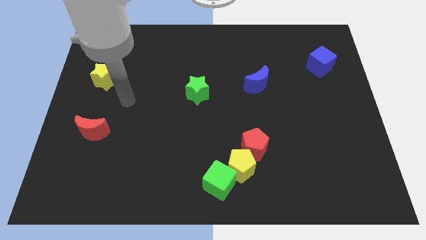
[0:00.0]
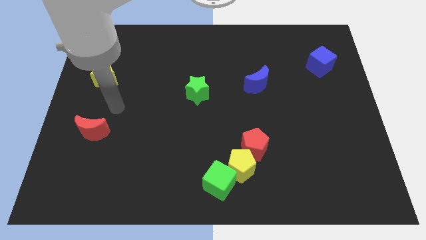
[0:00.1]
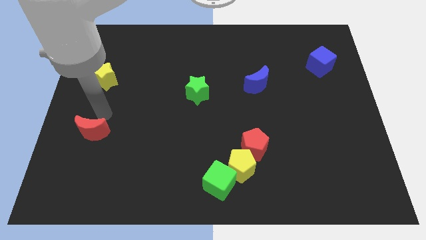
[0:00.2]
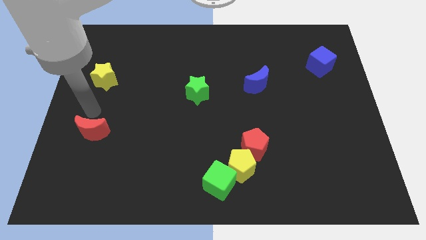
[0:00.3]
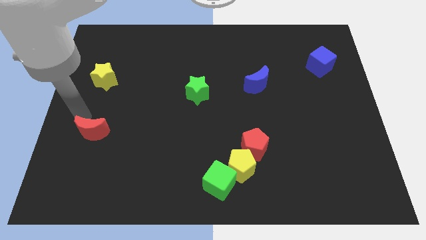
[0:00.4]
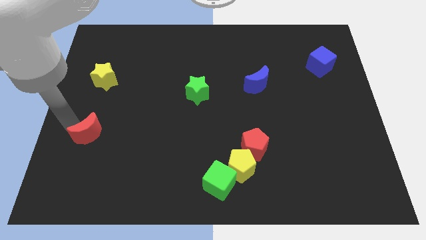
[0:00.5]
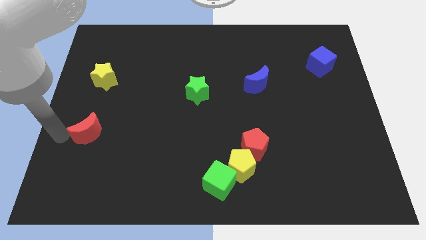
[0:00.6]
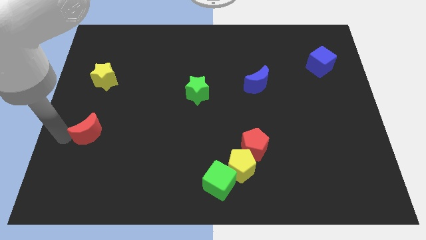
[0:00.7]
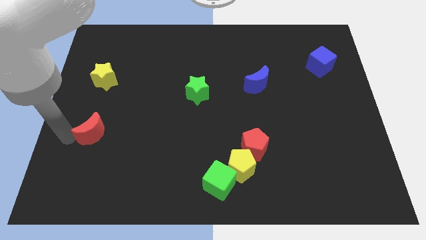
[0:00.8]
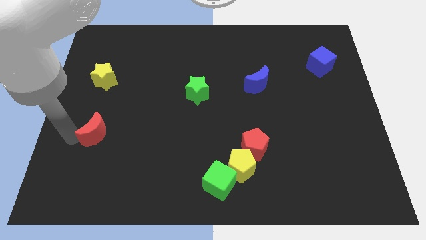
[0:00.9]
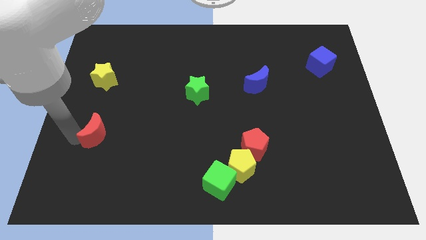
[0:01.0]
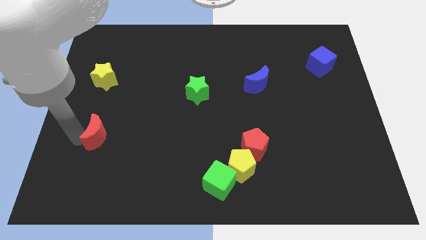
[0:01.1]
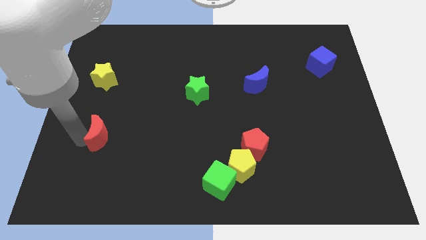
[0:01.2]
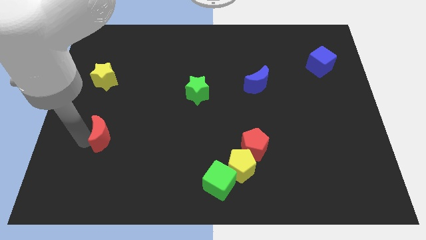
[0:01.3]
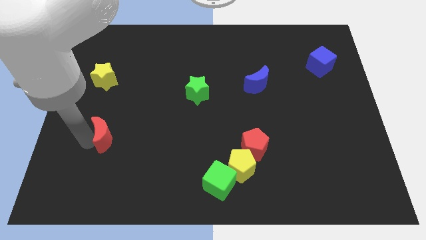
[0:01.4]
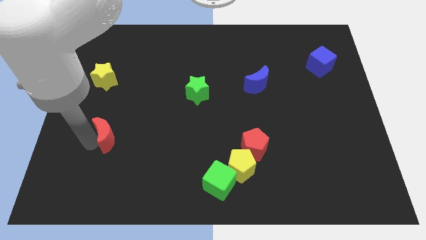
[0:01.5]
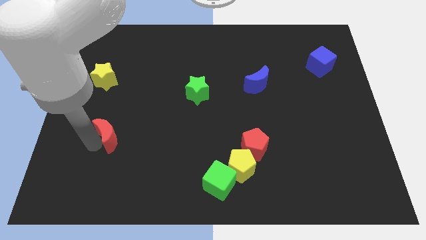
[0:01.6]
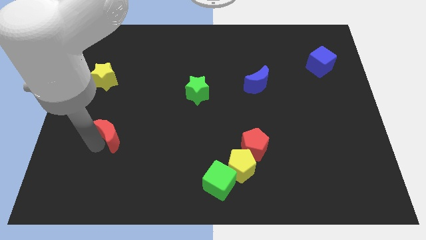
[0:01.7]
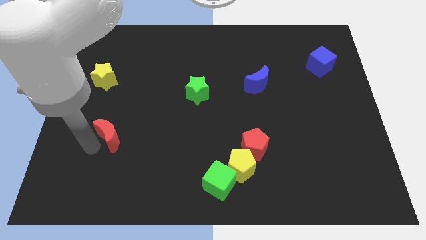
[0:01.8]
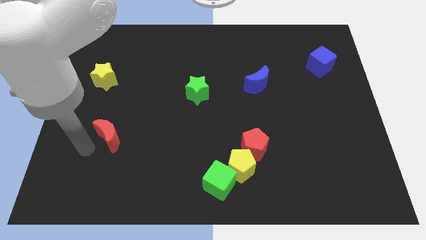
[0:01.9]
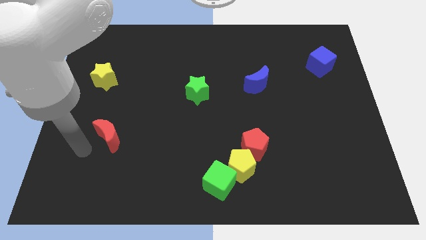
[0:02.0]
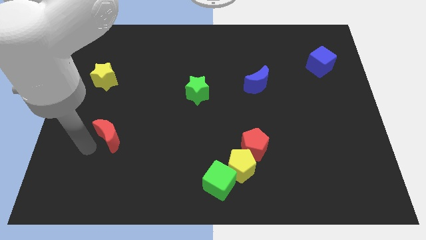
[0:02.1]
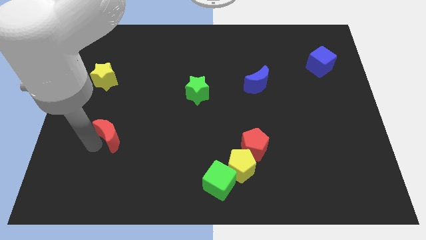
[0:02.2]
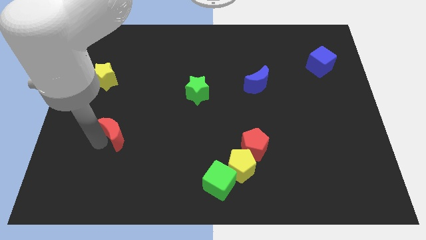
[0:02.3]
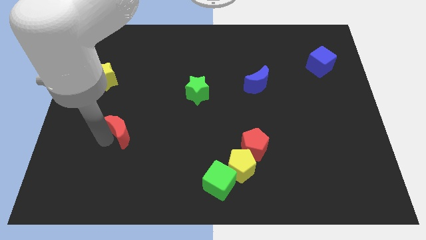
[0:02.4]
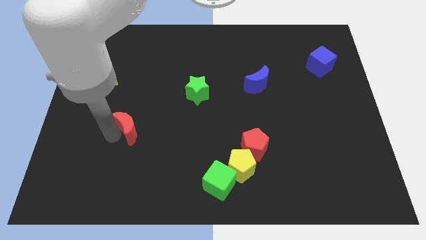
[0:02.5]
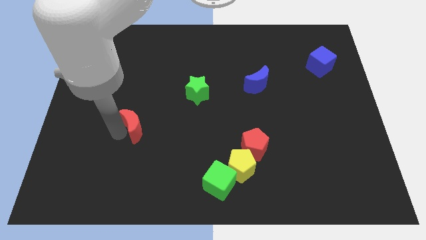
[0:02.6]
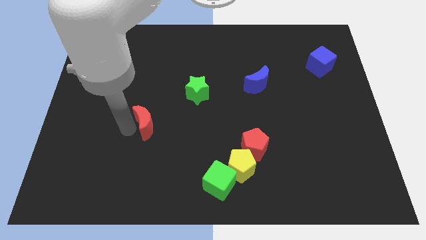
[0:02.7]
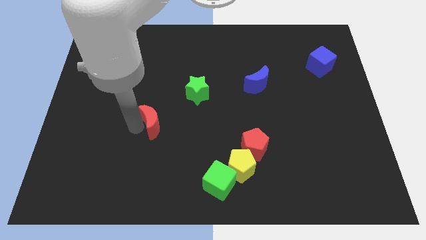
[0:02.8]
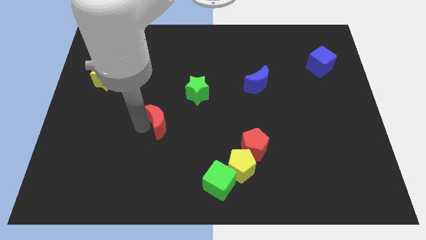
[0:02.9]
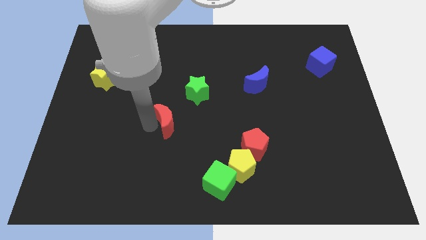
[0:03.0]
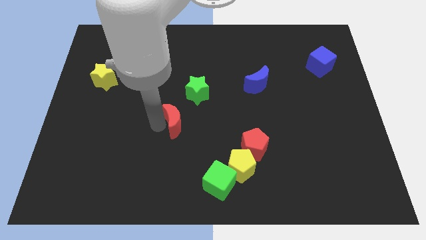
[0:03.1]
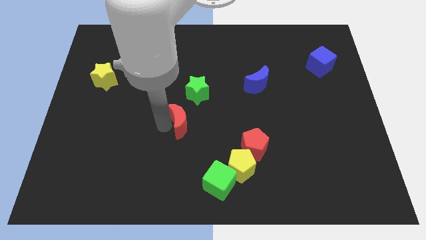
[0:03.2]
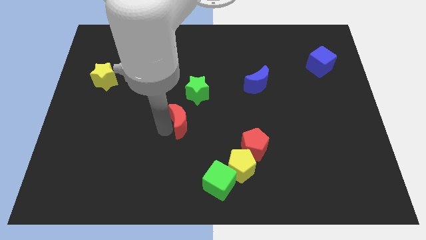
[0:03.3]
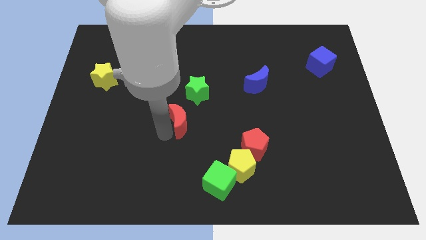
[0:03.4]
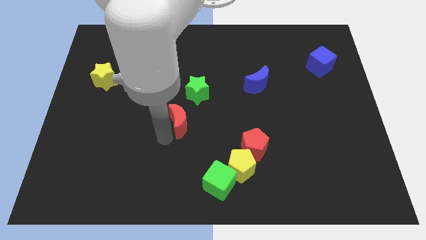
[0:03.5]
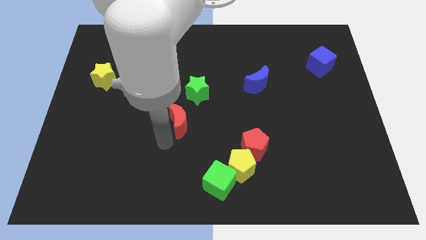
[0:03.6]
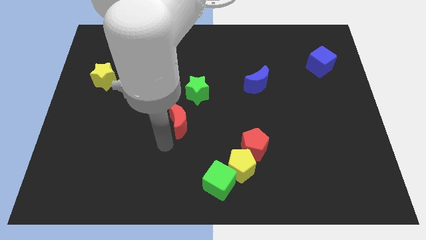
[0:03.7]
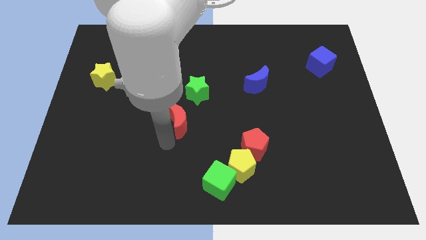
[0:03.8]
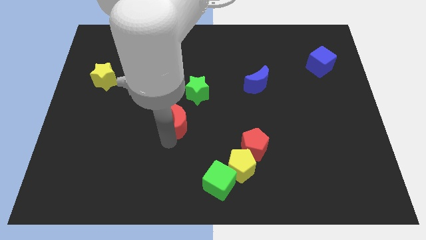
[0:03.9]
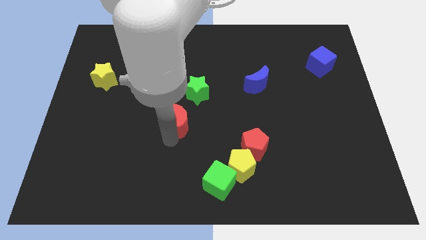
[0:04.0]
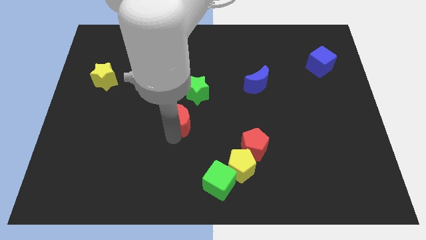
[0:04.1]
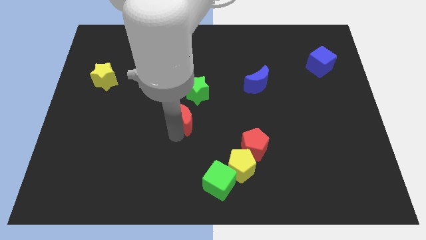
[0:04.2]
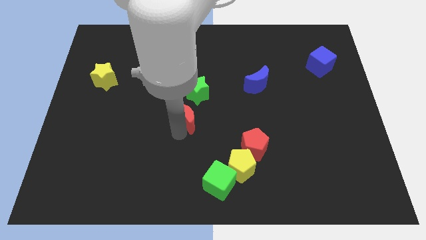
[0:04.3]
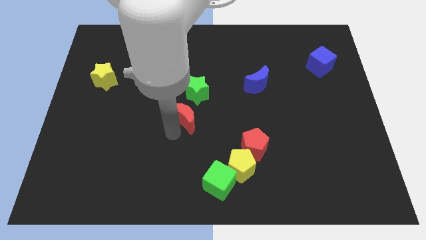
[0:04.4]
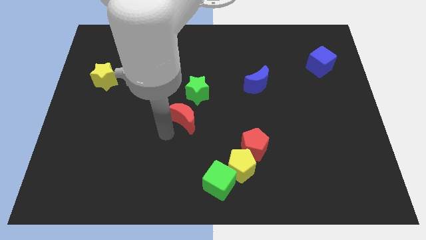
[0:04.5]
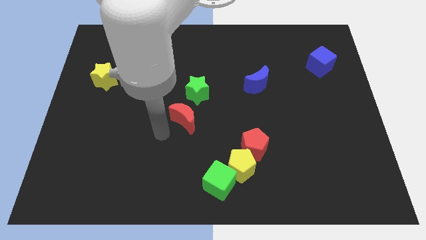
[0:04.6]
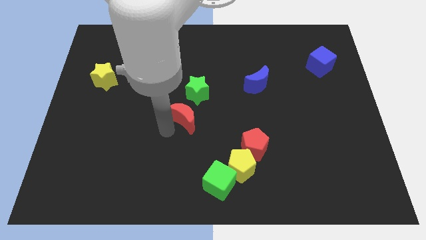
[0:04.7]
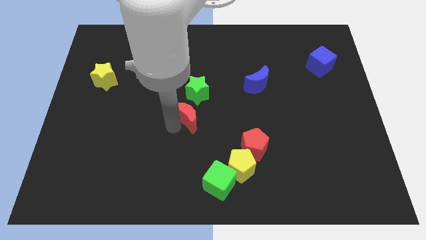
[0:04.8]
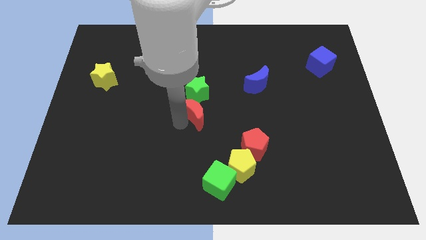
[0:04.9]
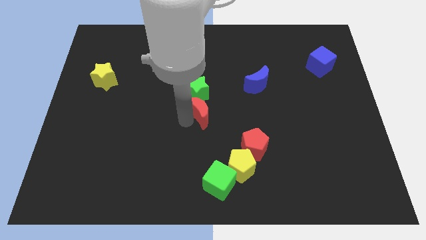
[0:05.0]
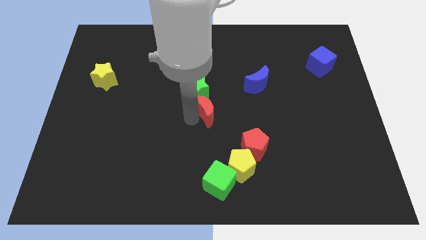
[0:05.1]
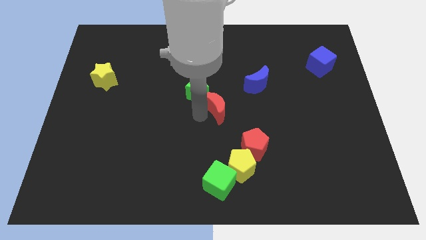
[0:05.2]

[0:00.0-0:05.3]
move the red moon to the right of the green star

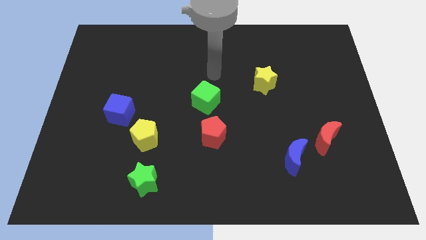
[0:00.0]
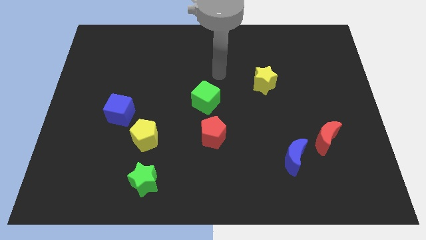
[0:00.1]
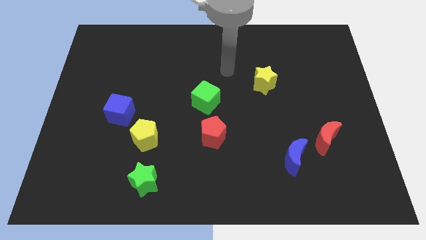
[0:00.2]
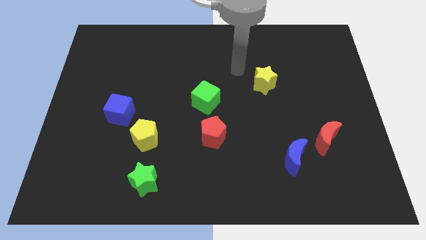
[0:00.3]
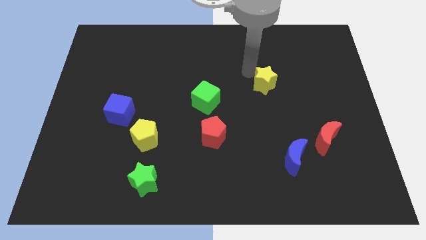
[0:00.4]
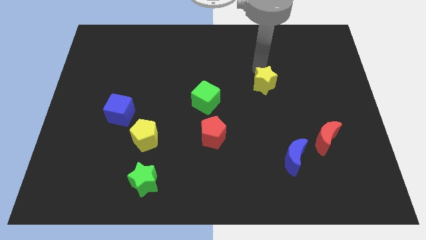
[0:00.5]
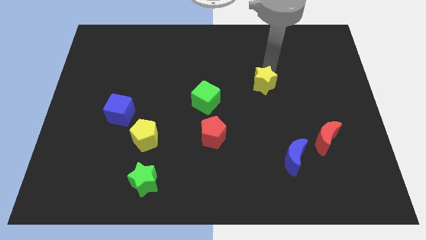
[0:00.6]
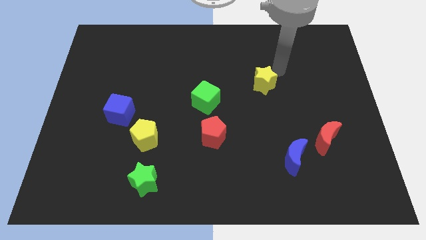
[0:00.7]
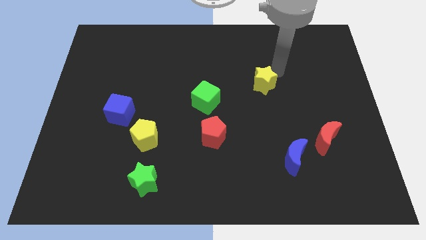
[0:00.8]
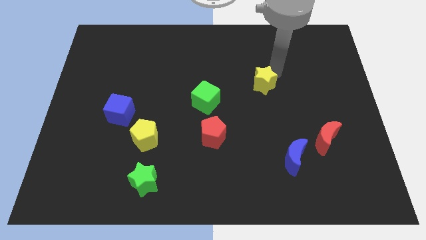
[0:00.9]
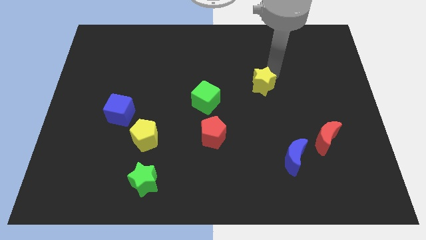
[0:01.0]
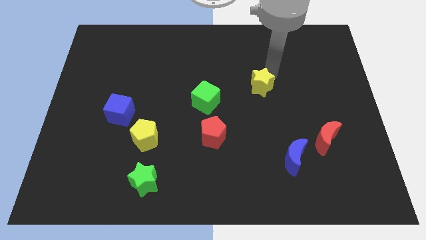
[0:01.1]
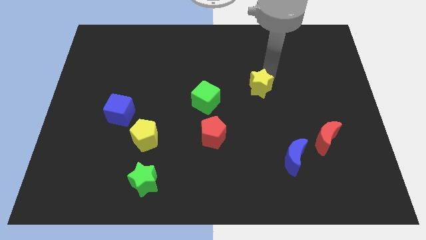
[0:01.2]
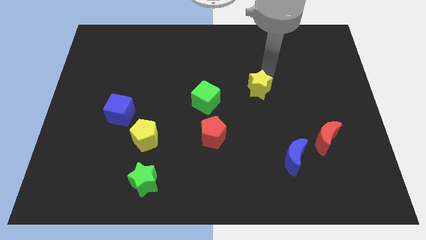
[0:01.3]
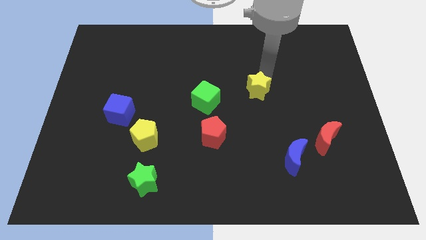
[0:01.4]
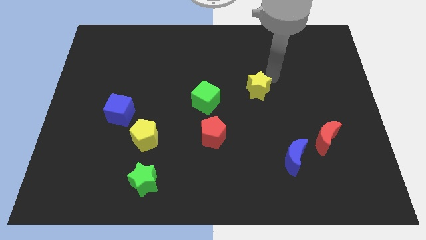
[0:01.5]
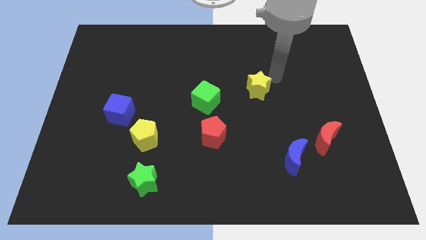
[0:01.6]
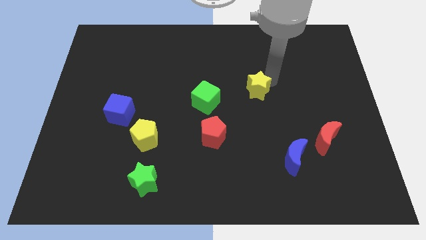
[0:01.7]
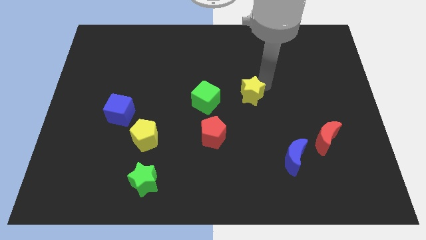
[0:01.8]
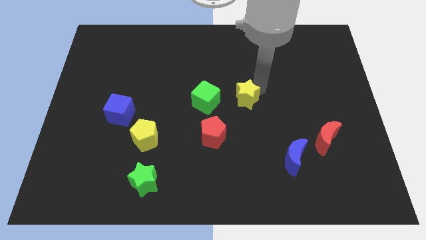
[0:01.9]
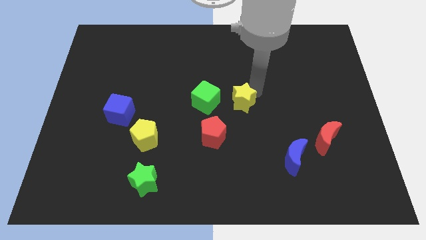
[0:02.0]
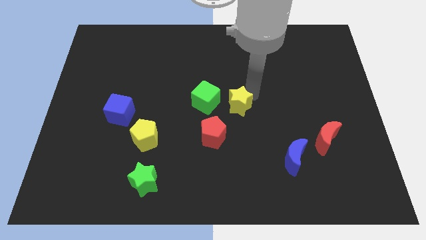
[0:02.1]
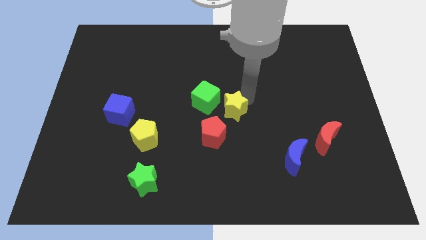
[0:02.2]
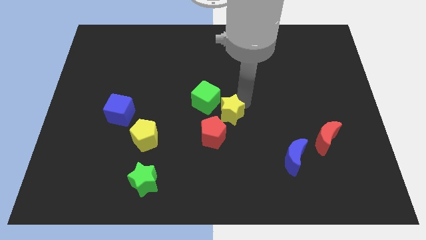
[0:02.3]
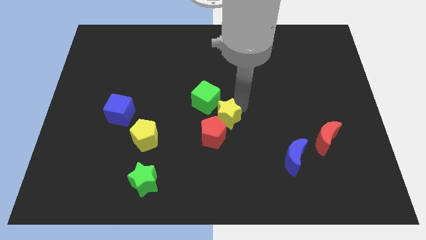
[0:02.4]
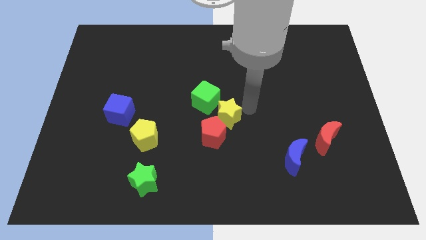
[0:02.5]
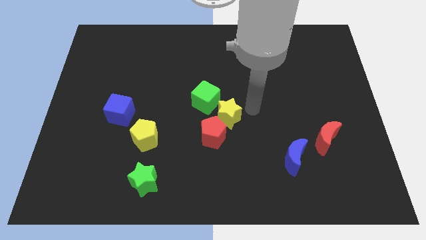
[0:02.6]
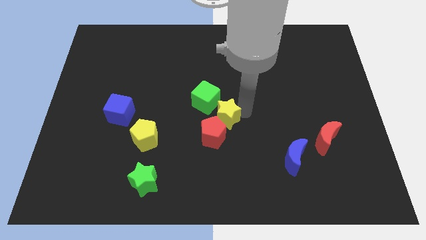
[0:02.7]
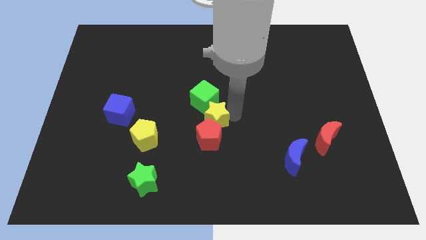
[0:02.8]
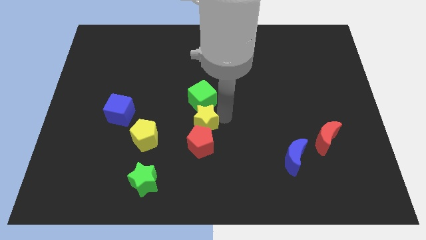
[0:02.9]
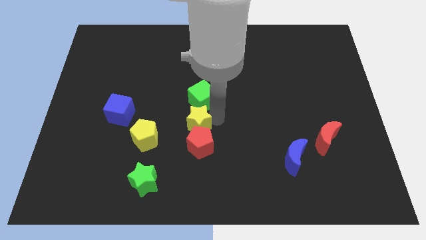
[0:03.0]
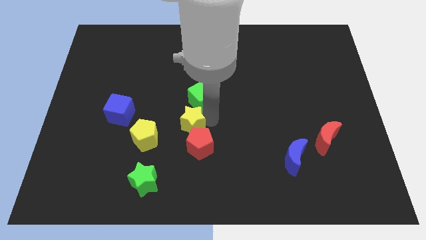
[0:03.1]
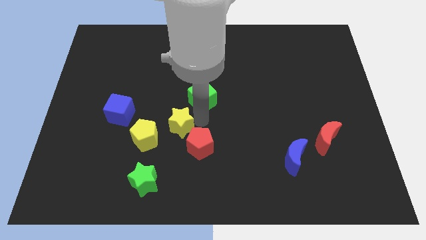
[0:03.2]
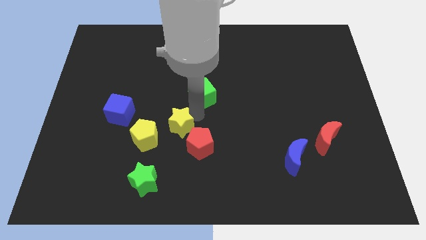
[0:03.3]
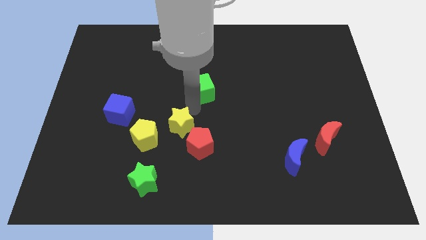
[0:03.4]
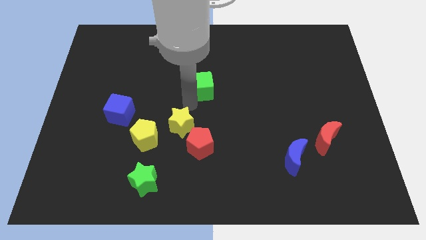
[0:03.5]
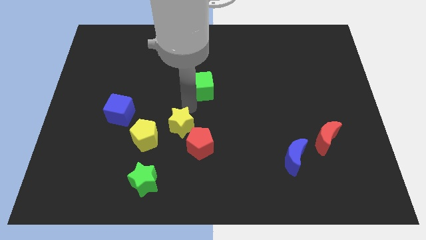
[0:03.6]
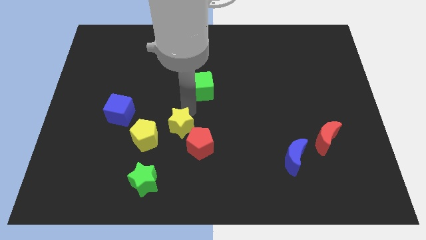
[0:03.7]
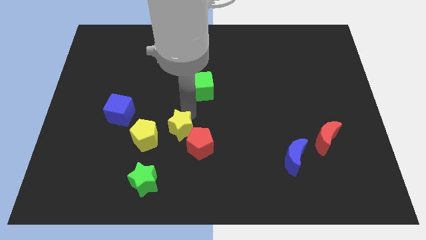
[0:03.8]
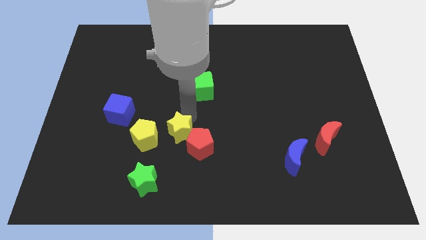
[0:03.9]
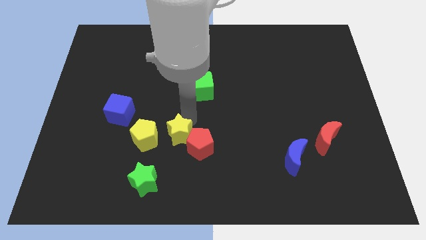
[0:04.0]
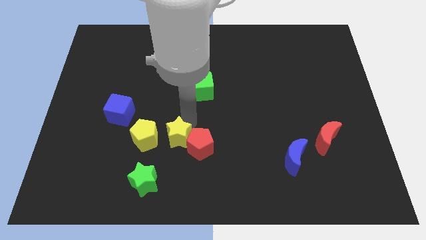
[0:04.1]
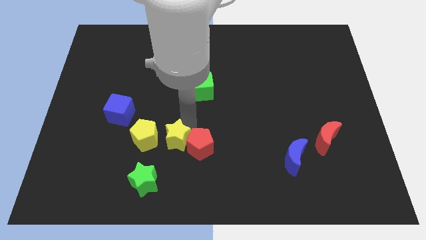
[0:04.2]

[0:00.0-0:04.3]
slide the yellow star diagonally down and to the right of the yellow pentagon
